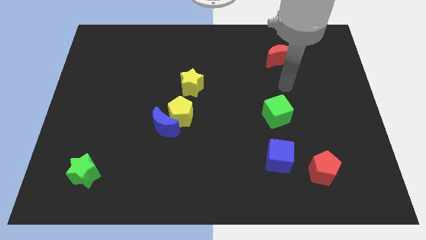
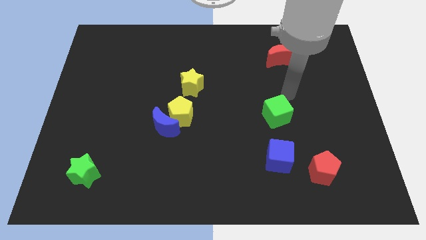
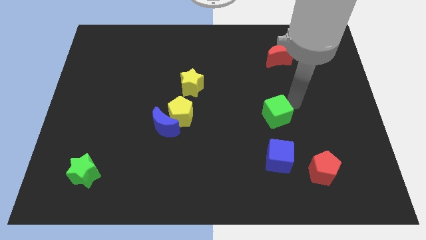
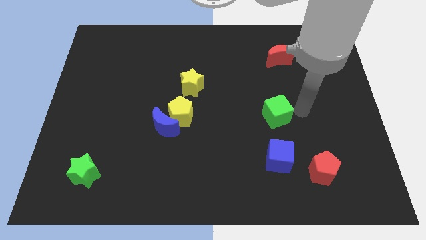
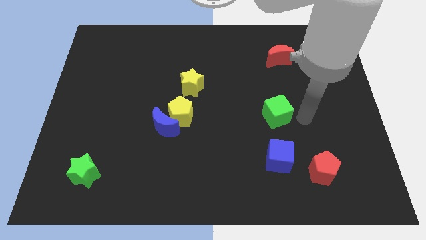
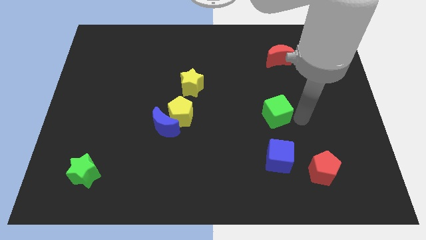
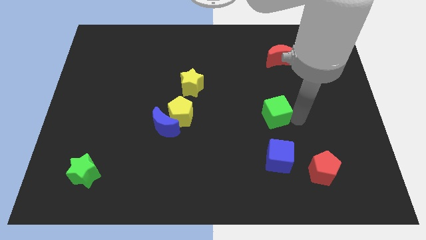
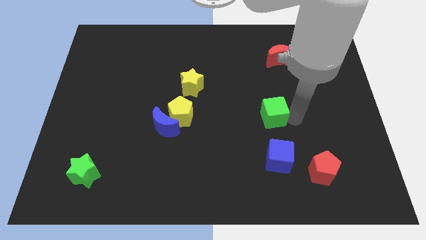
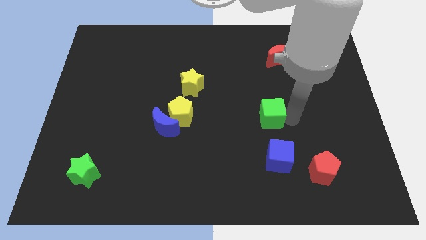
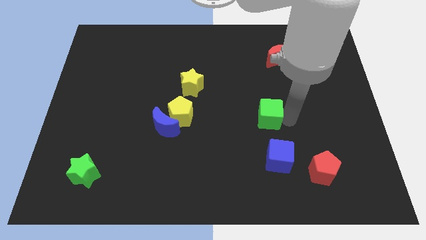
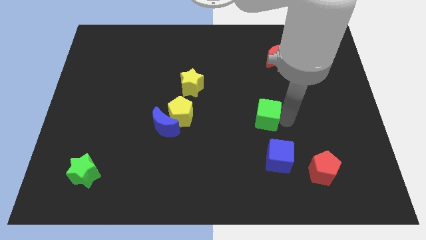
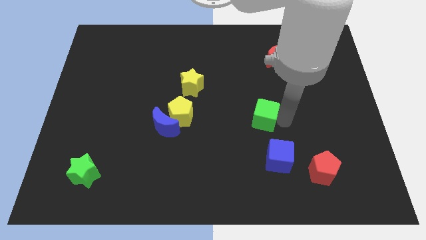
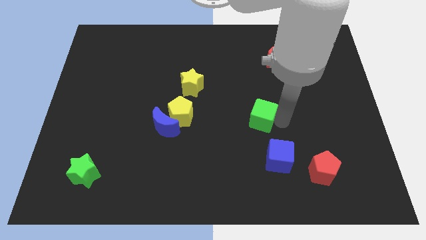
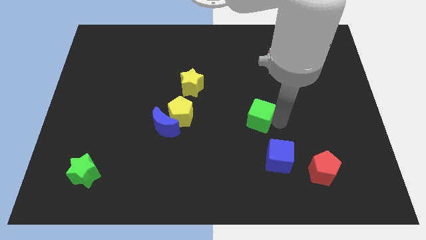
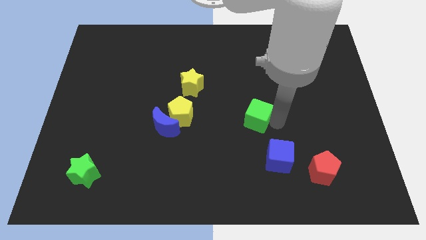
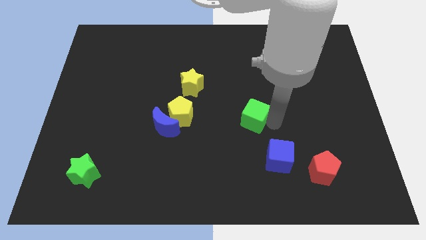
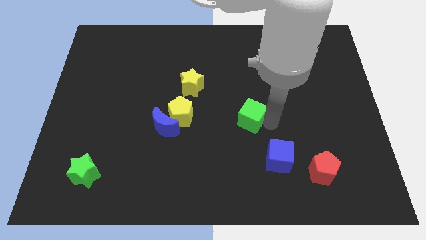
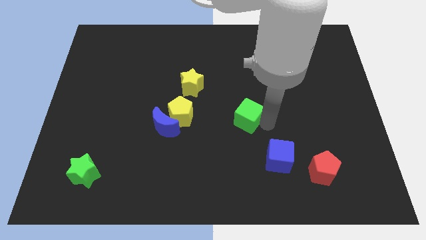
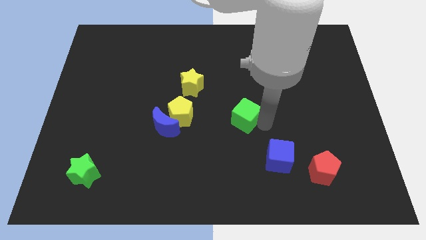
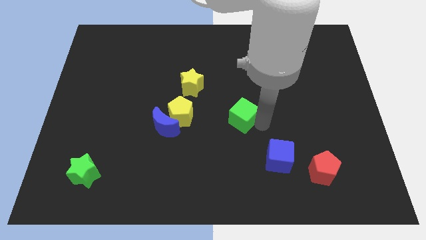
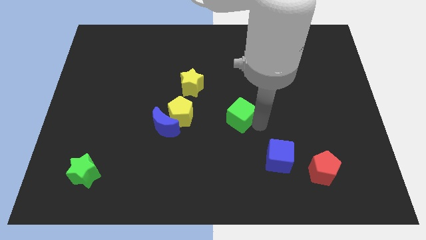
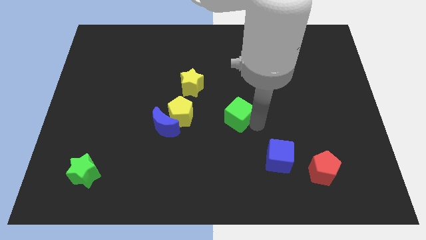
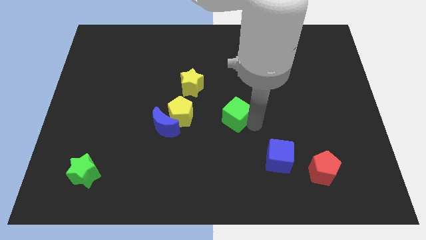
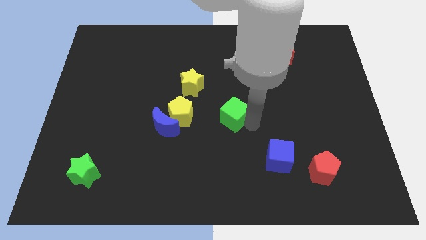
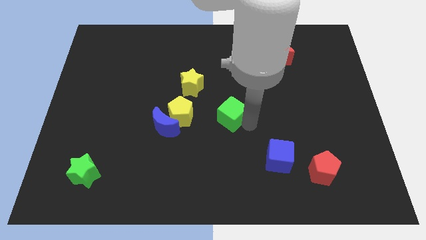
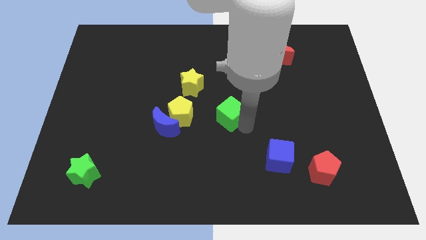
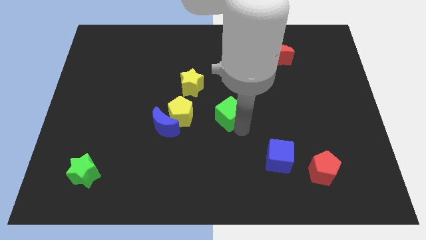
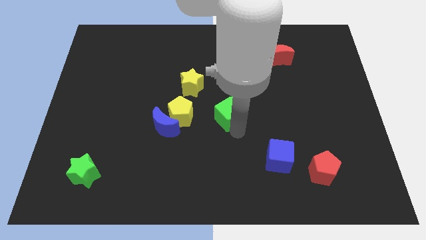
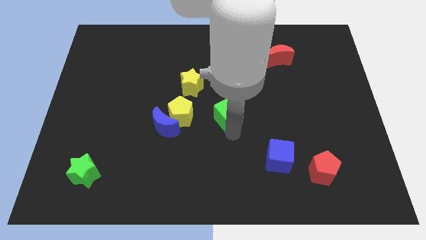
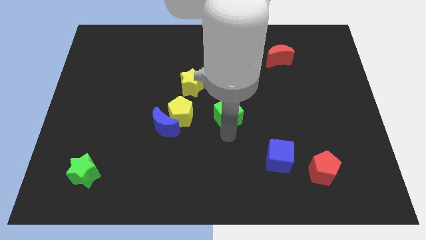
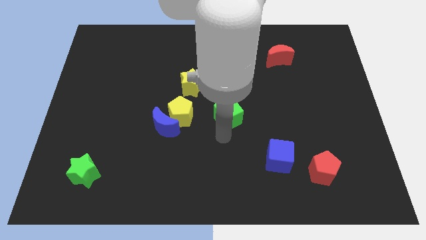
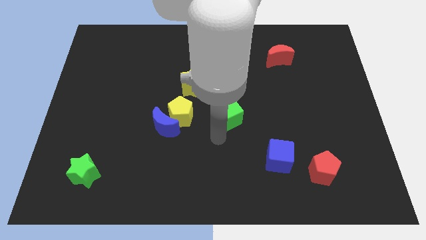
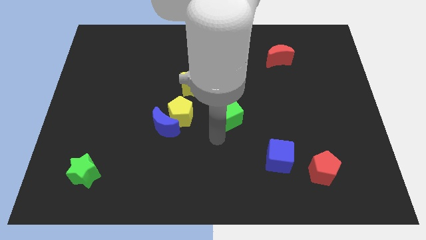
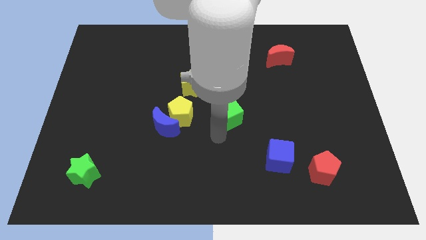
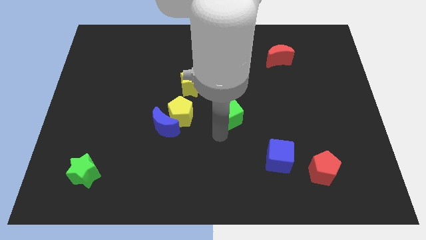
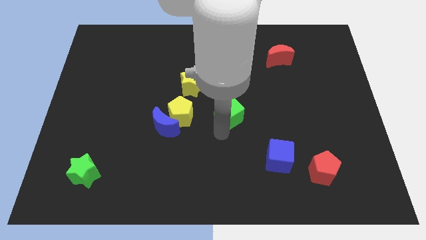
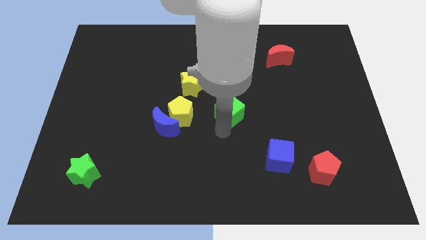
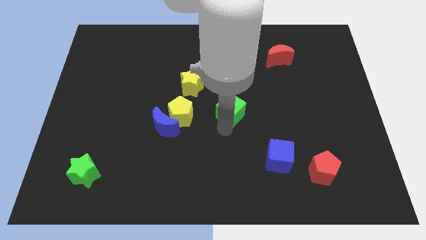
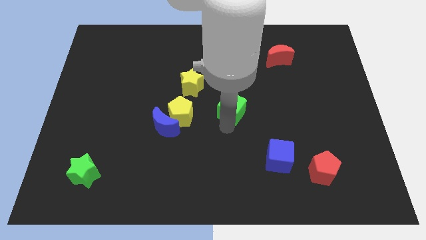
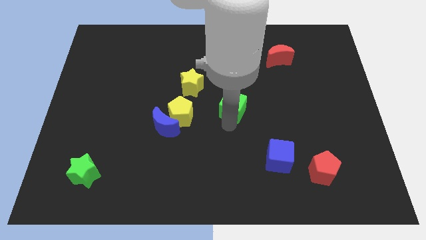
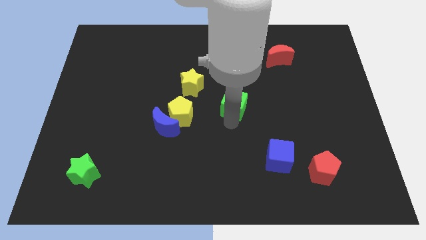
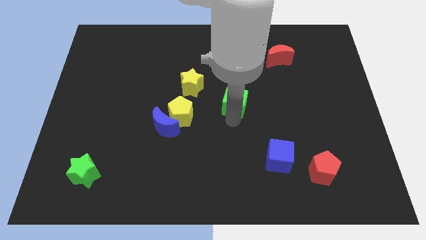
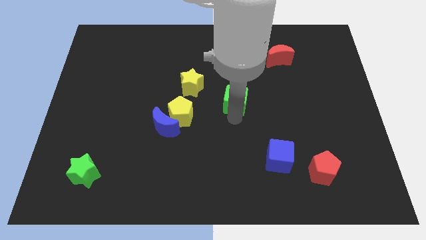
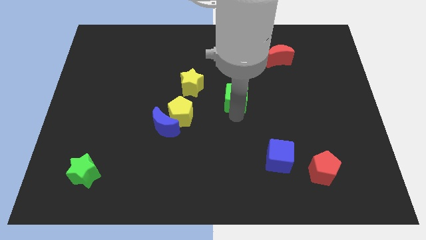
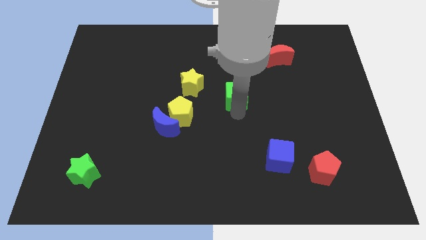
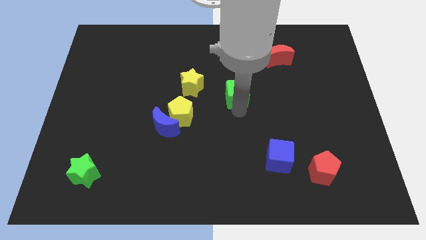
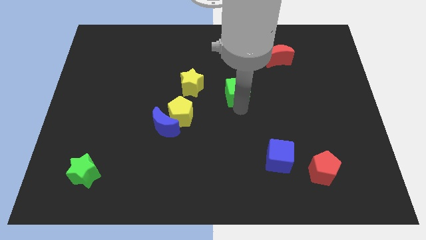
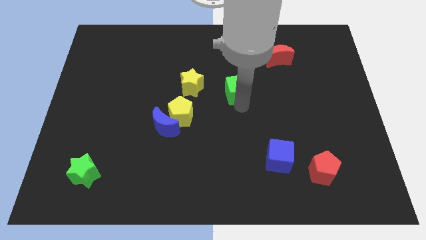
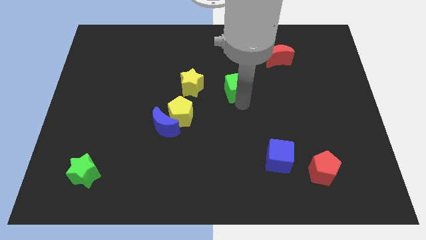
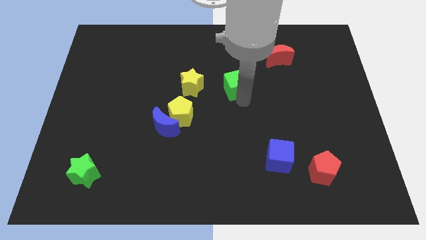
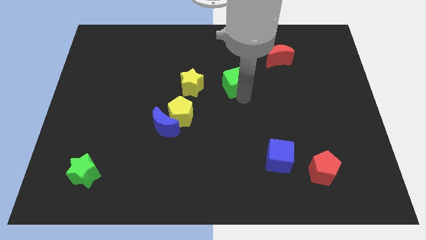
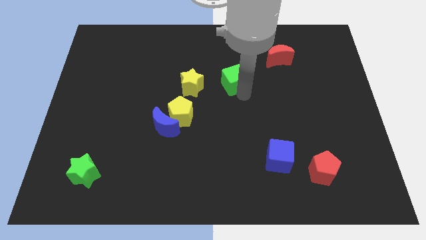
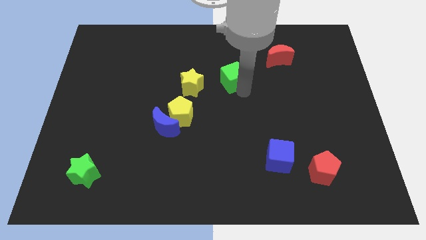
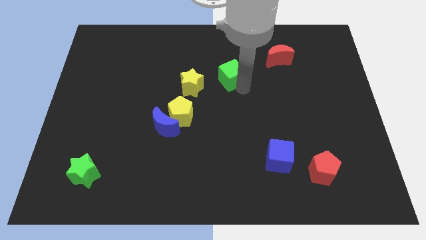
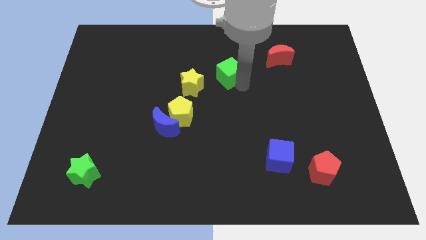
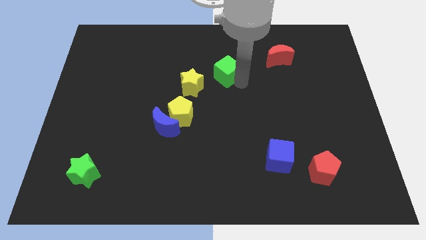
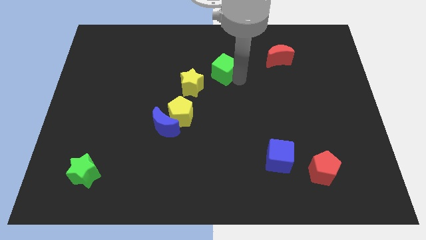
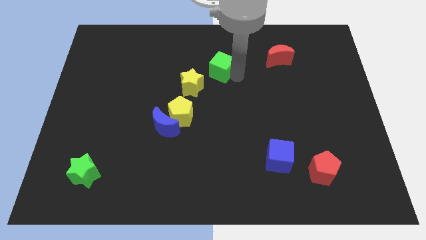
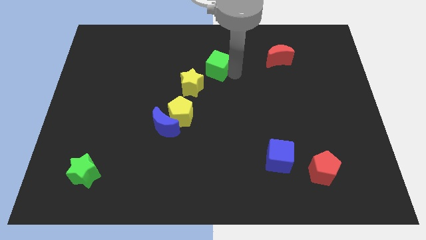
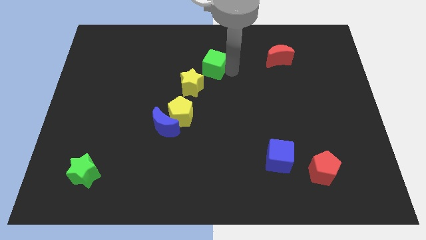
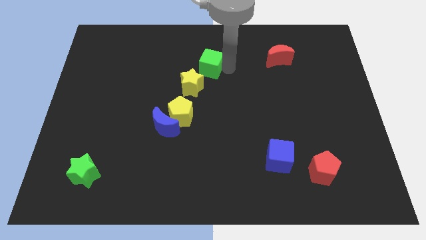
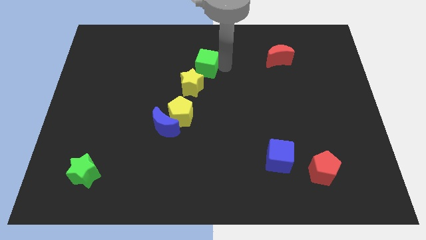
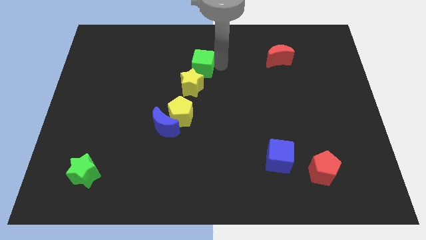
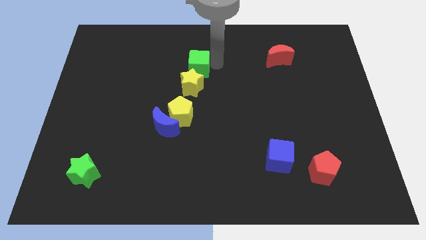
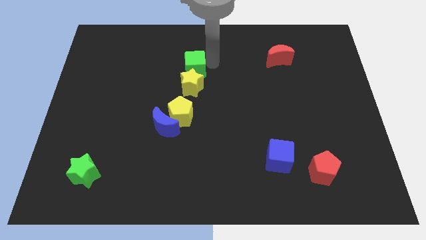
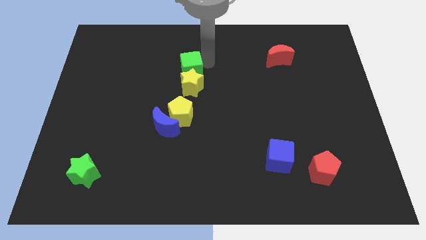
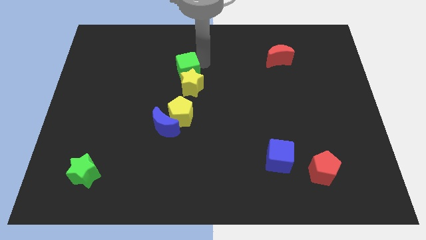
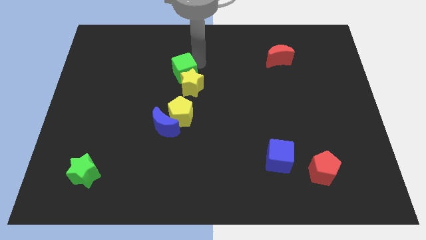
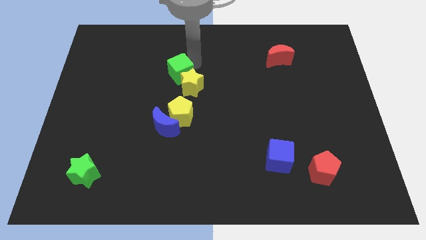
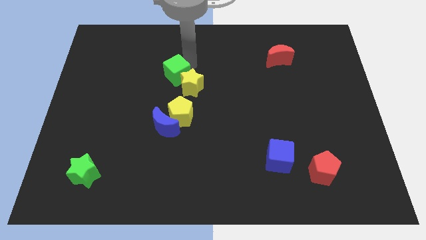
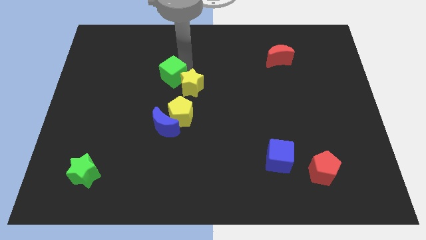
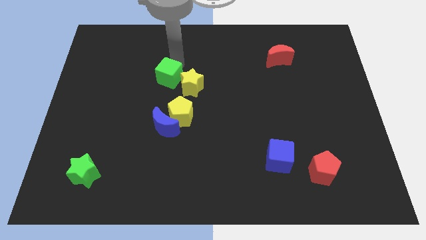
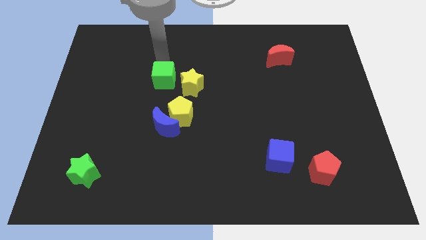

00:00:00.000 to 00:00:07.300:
move the green cube to the left

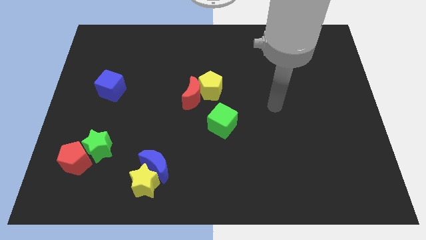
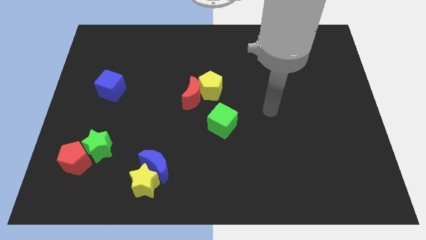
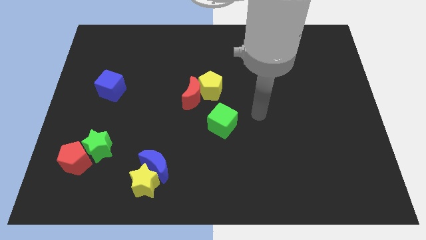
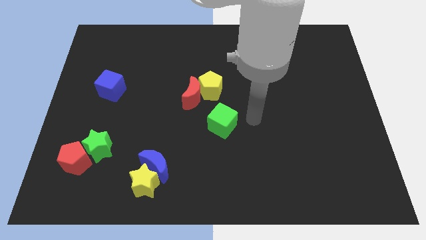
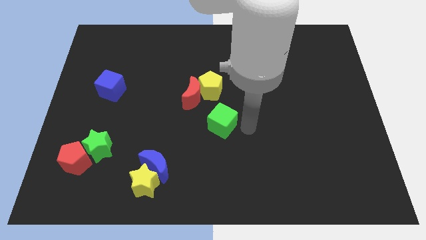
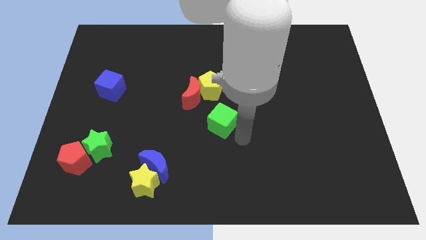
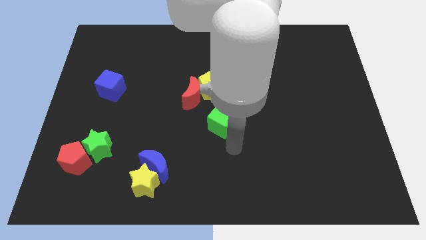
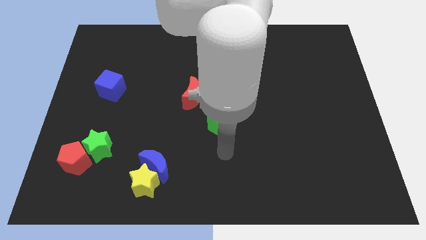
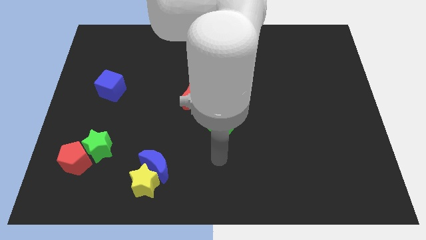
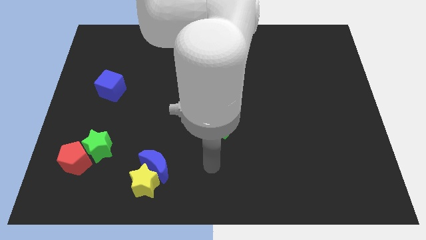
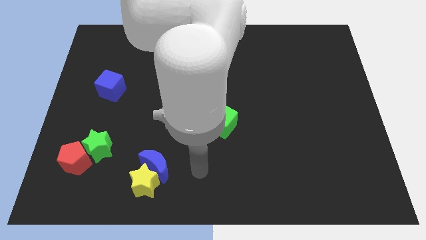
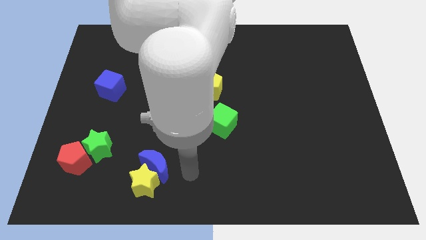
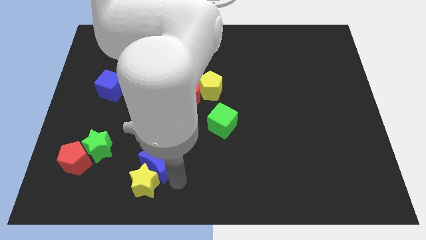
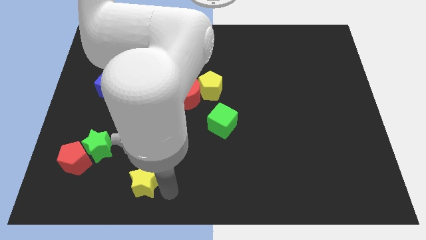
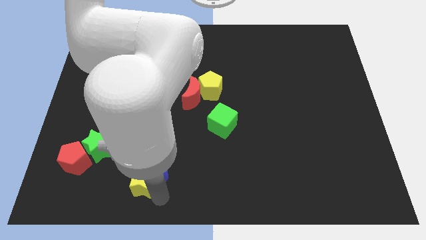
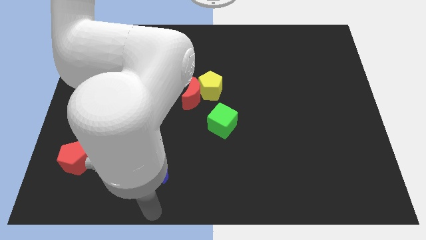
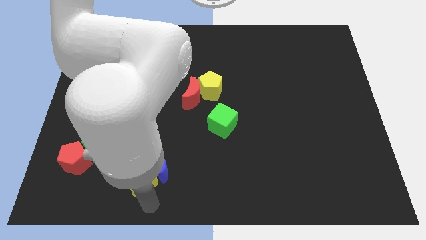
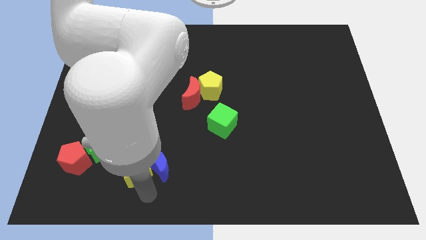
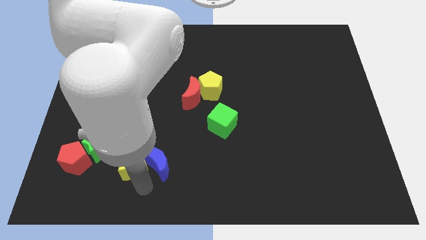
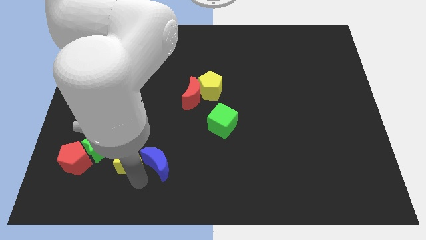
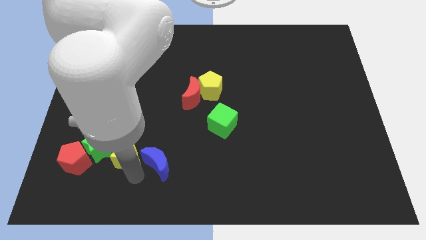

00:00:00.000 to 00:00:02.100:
push the yellow star slightly upwards and to the left diagonally
